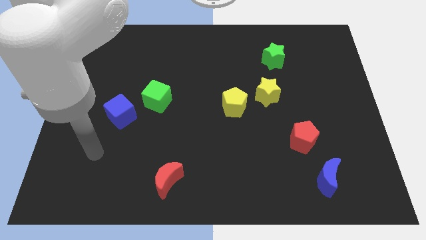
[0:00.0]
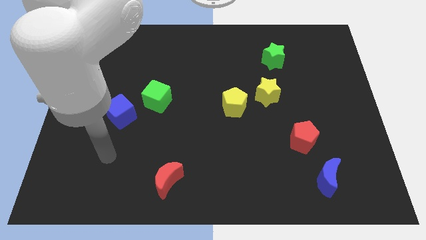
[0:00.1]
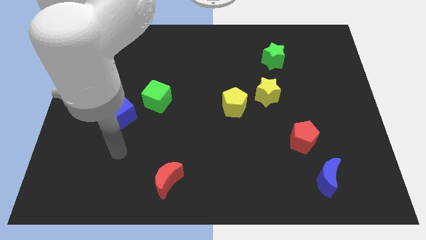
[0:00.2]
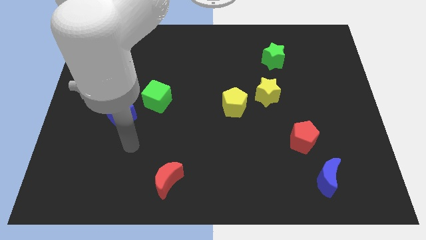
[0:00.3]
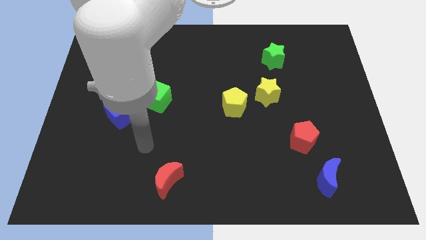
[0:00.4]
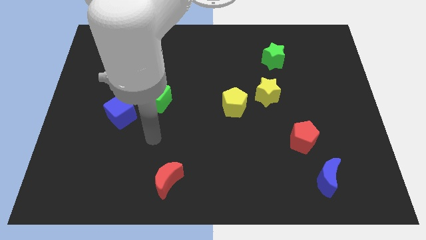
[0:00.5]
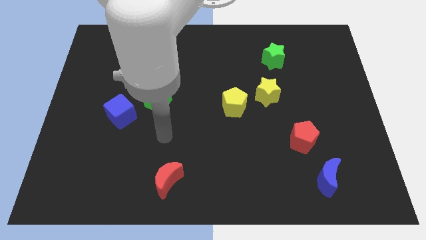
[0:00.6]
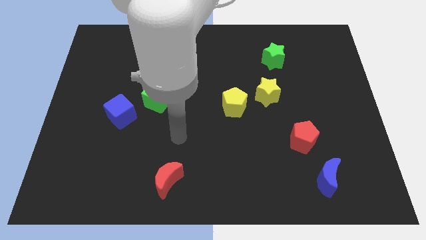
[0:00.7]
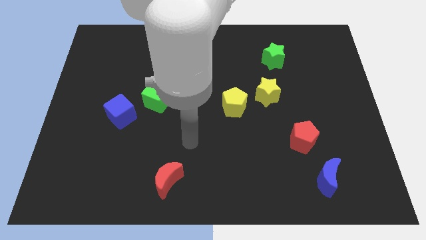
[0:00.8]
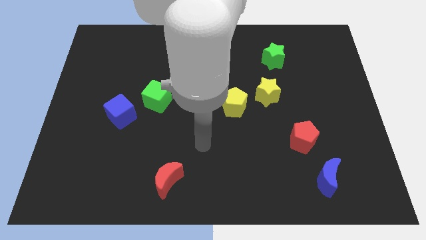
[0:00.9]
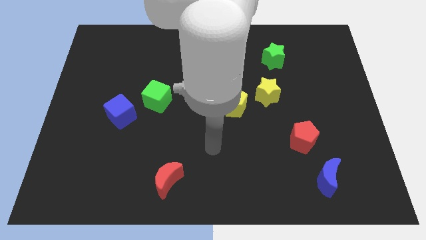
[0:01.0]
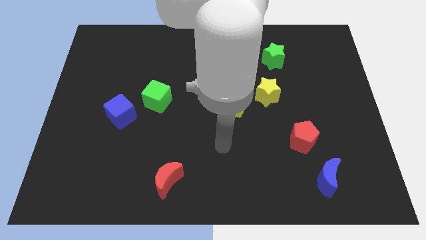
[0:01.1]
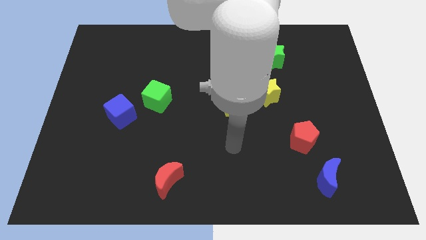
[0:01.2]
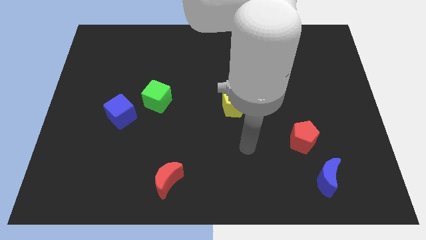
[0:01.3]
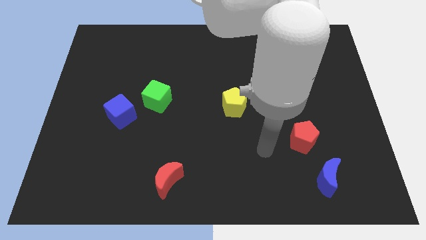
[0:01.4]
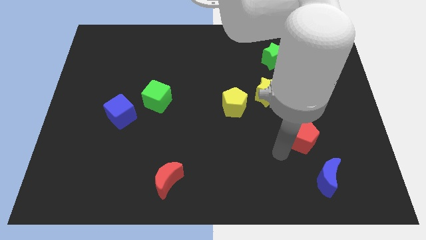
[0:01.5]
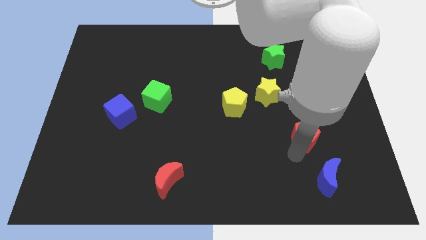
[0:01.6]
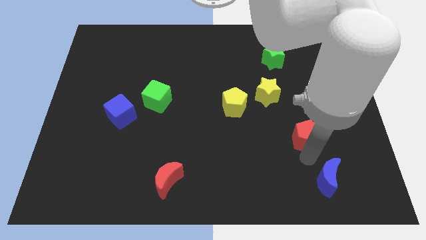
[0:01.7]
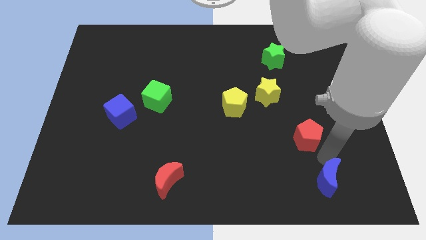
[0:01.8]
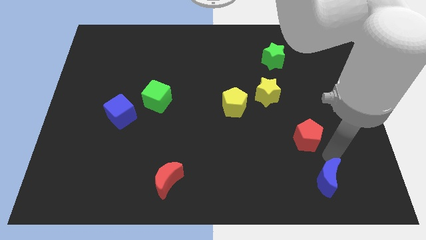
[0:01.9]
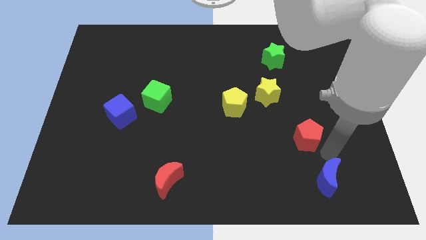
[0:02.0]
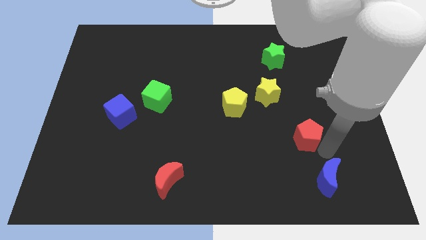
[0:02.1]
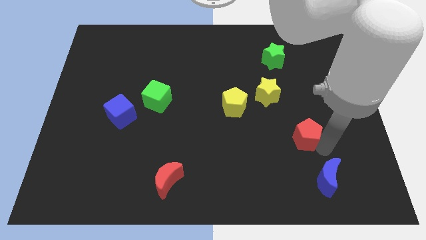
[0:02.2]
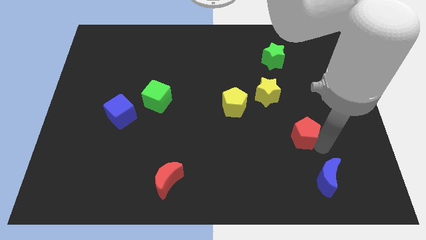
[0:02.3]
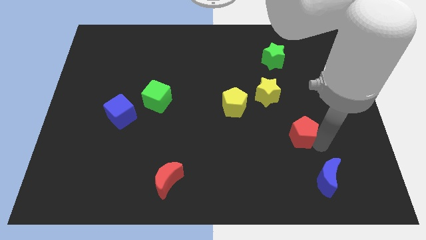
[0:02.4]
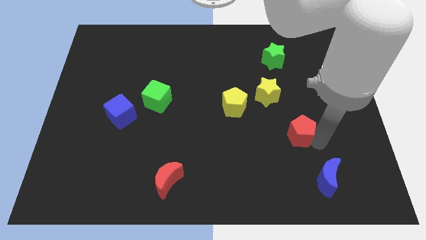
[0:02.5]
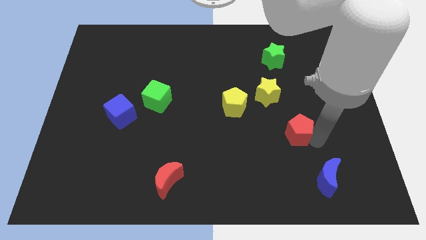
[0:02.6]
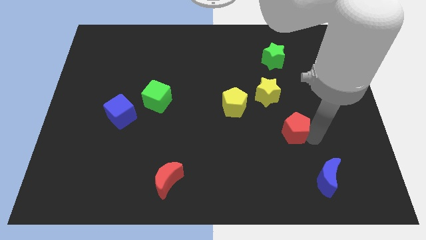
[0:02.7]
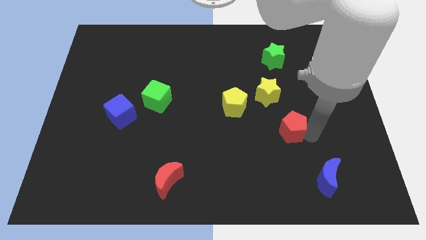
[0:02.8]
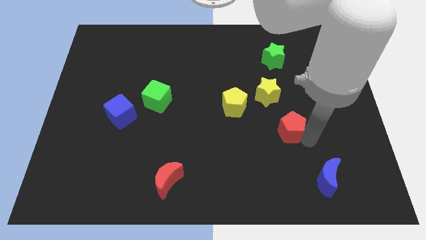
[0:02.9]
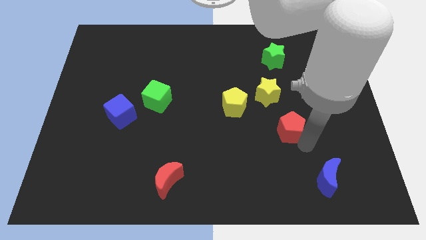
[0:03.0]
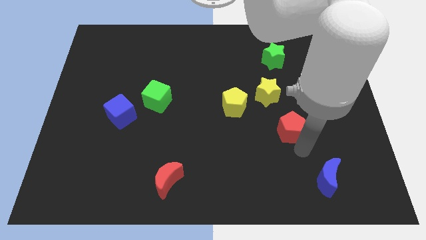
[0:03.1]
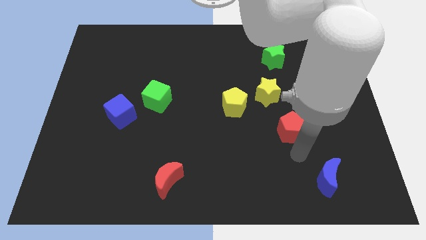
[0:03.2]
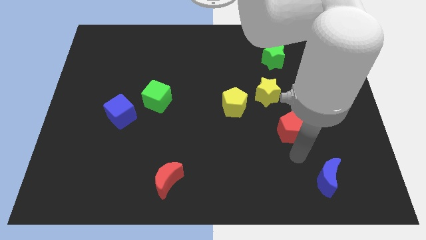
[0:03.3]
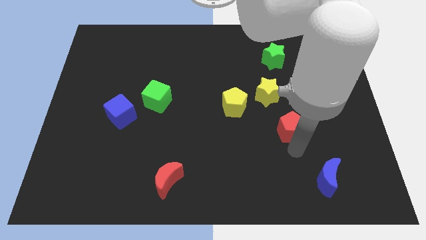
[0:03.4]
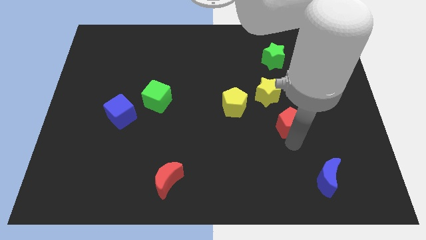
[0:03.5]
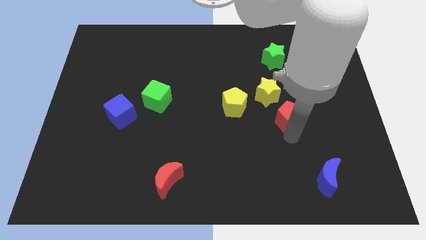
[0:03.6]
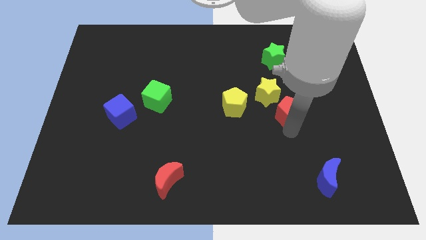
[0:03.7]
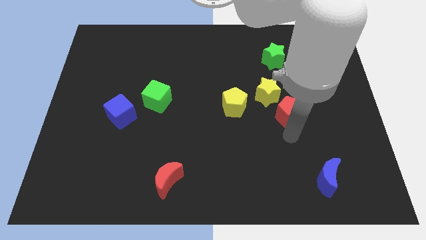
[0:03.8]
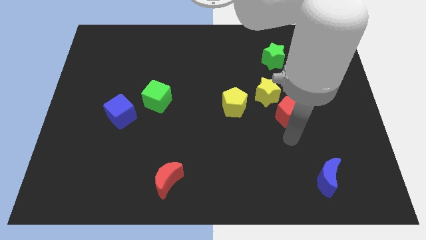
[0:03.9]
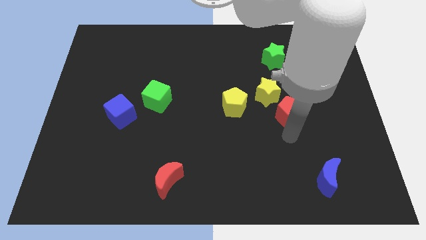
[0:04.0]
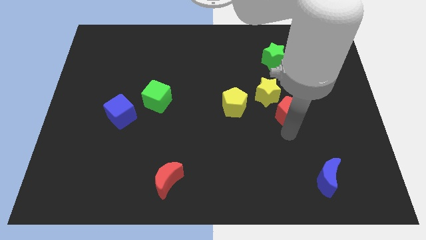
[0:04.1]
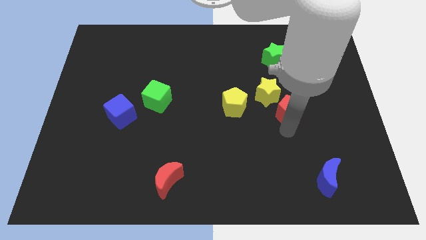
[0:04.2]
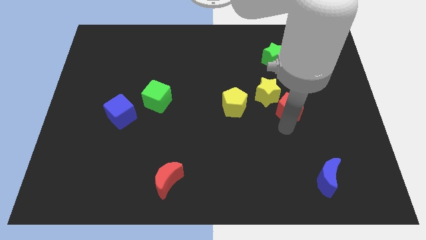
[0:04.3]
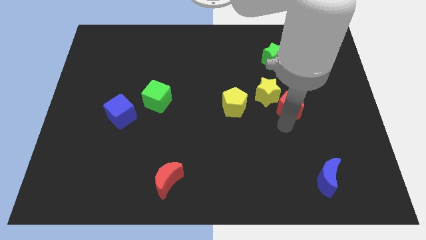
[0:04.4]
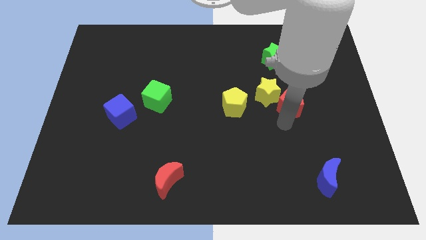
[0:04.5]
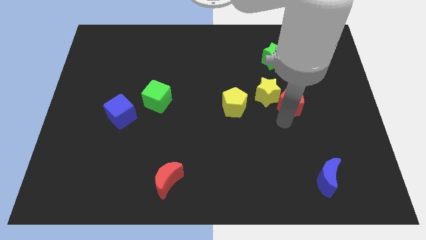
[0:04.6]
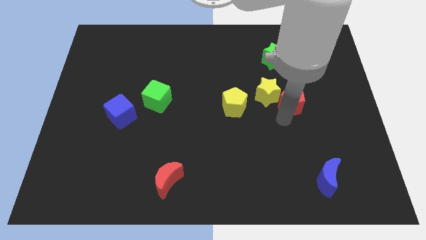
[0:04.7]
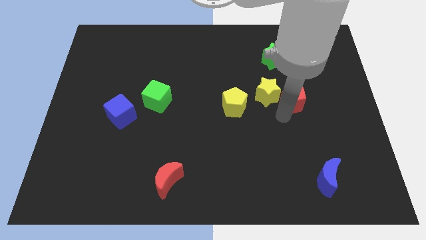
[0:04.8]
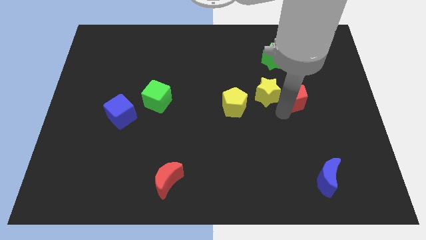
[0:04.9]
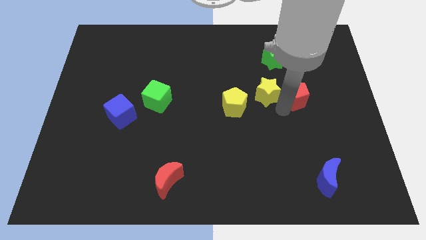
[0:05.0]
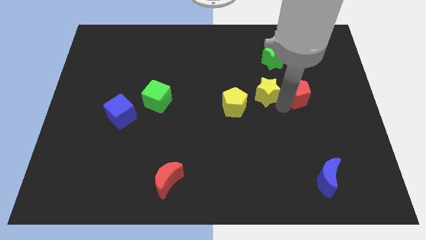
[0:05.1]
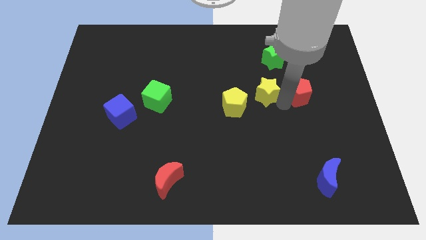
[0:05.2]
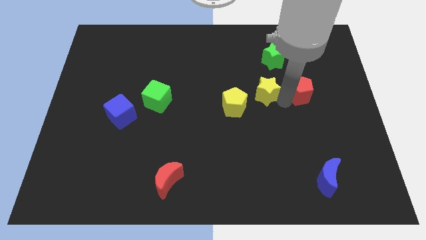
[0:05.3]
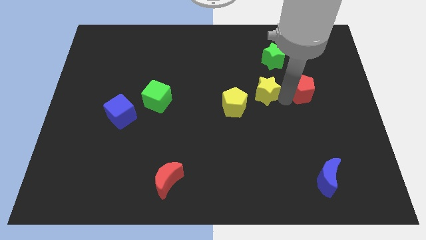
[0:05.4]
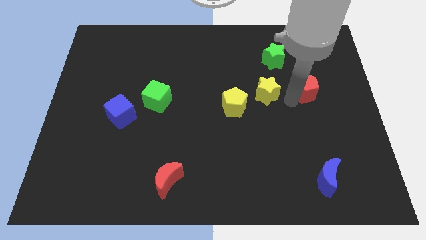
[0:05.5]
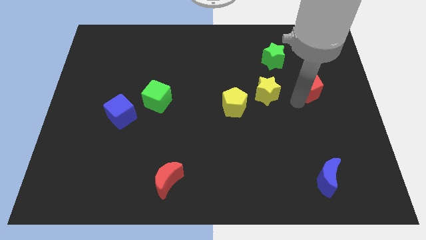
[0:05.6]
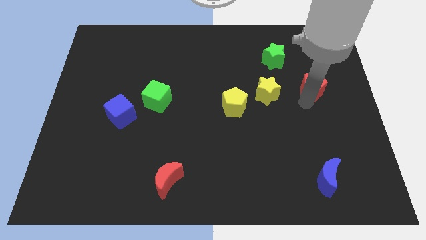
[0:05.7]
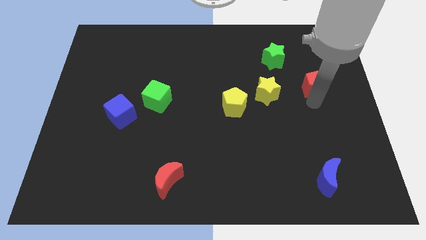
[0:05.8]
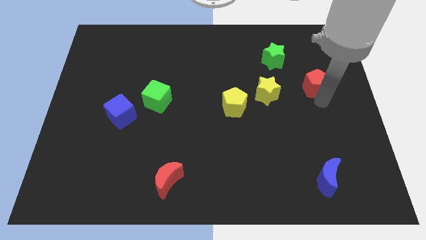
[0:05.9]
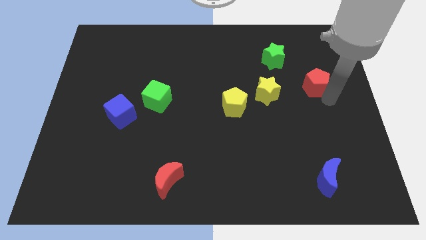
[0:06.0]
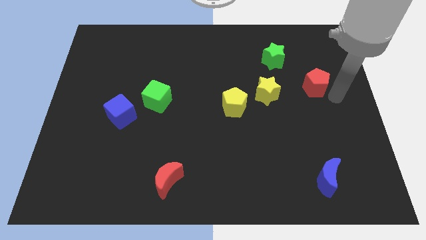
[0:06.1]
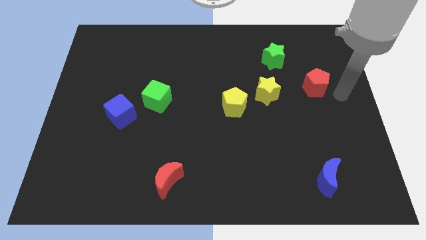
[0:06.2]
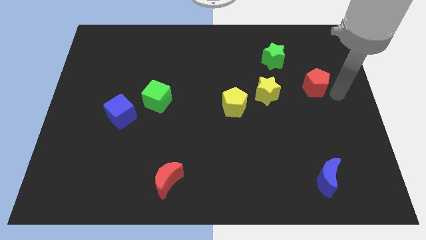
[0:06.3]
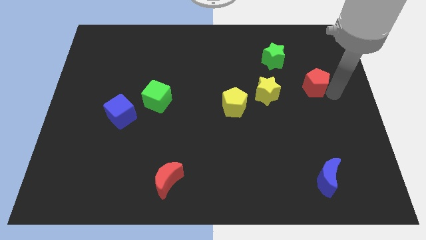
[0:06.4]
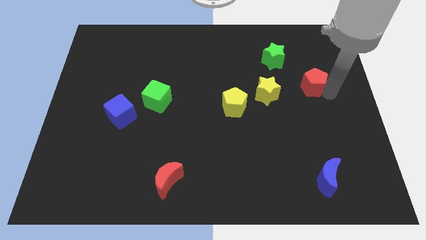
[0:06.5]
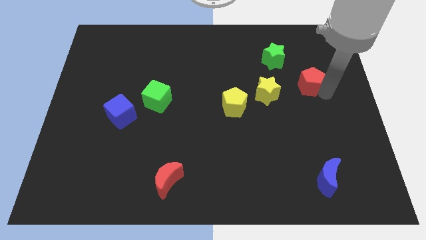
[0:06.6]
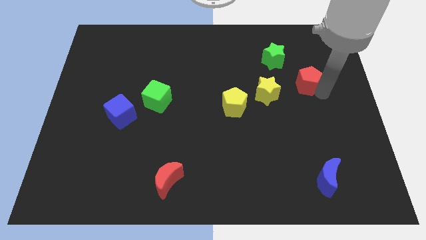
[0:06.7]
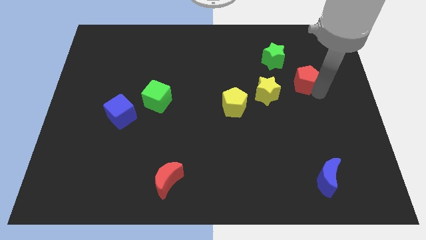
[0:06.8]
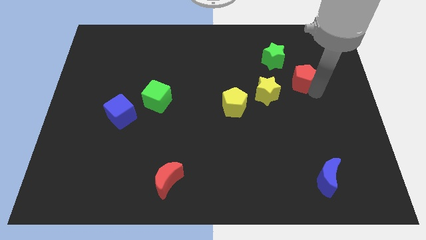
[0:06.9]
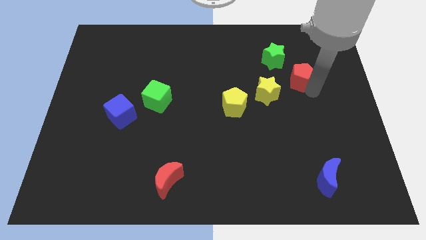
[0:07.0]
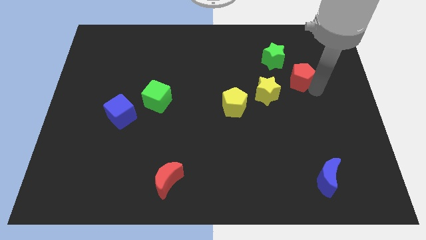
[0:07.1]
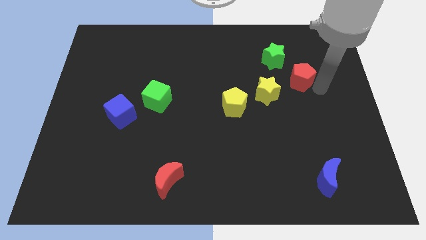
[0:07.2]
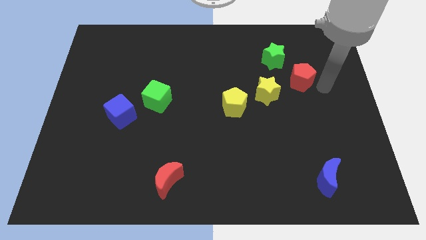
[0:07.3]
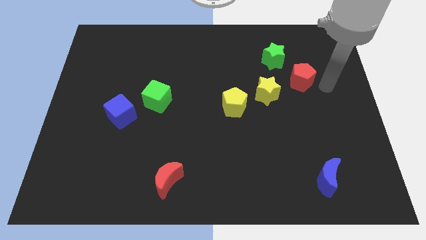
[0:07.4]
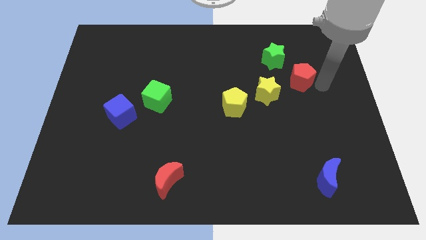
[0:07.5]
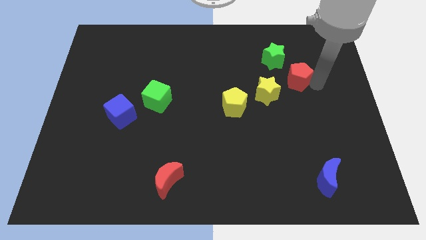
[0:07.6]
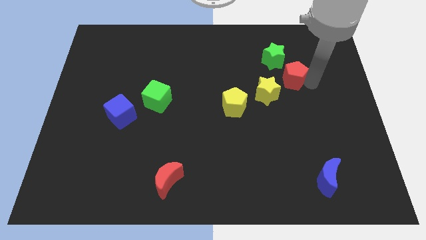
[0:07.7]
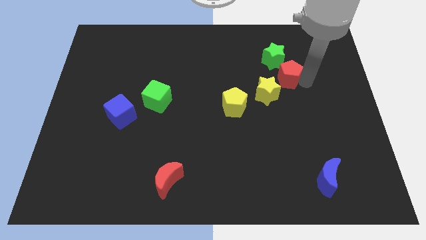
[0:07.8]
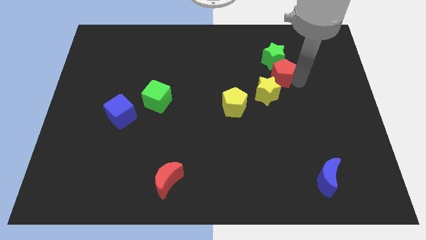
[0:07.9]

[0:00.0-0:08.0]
push the red pentagon next to the green star
